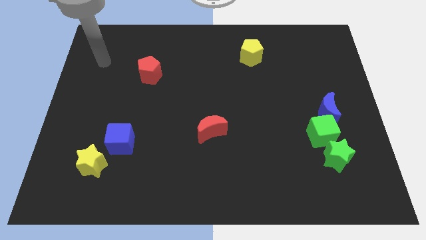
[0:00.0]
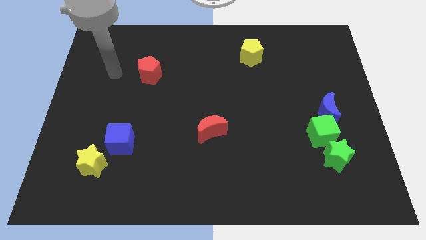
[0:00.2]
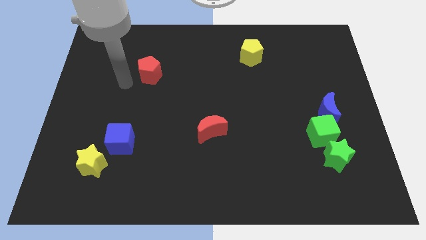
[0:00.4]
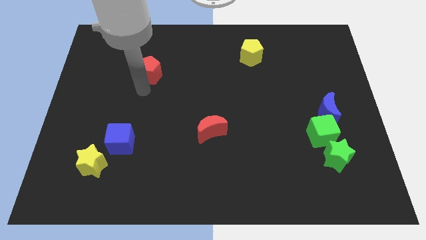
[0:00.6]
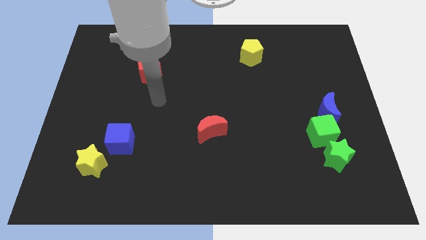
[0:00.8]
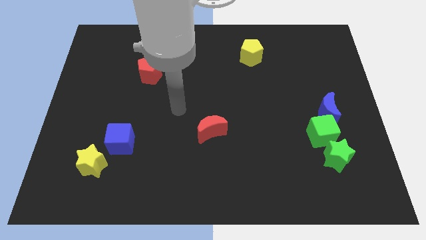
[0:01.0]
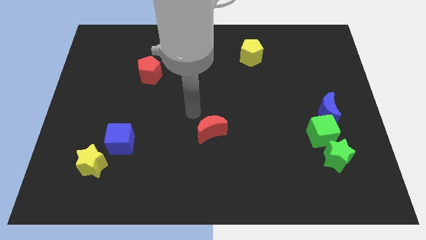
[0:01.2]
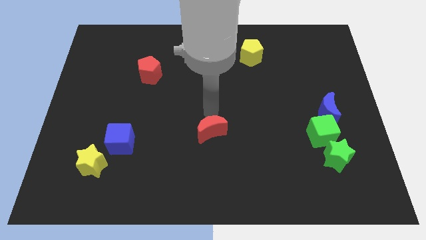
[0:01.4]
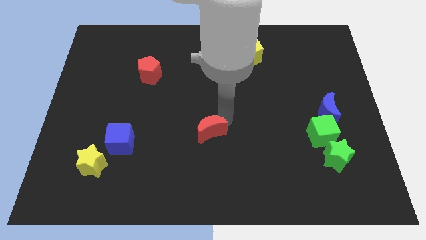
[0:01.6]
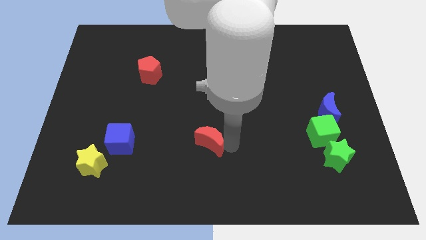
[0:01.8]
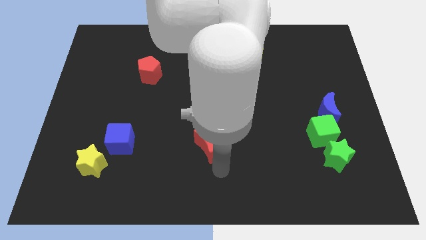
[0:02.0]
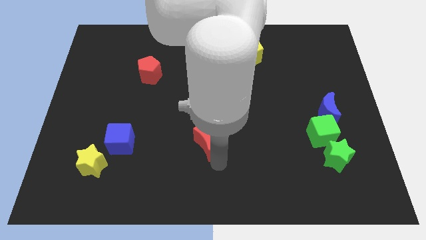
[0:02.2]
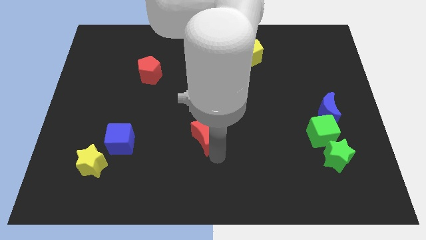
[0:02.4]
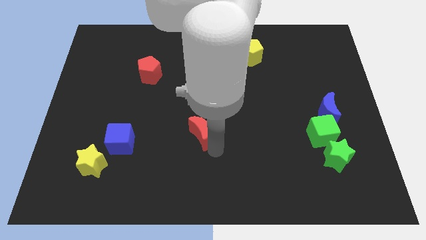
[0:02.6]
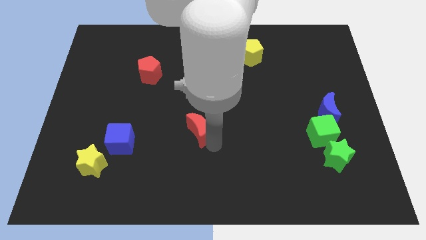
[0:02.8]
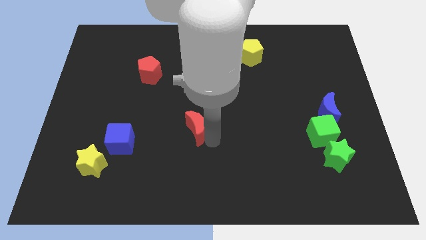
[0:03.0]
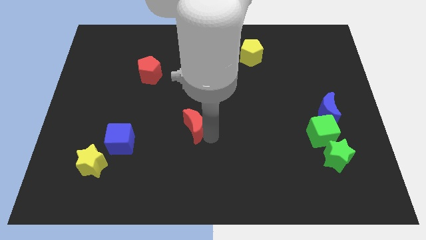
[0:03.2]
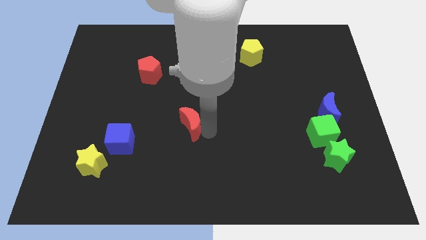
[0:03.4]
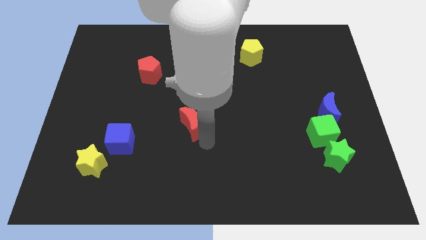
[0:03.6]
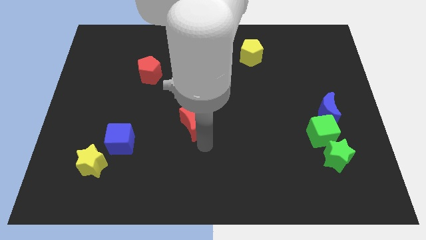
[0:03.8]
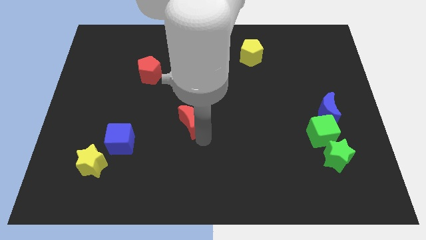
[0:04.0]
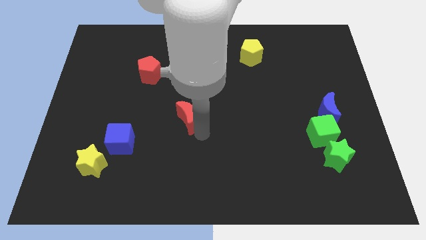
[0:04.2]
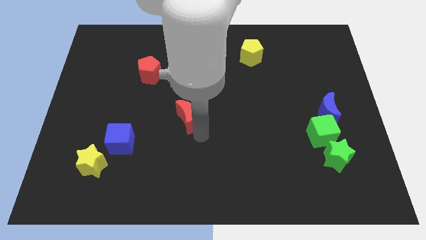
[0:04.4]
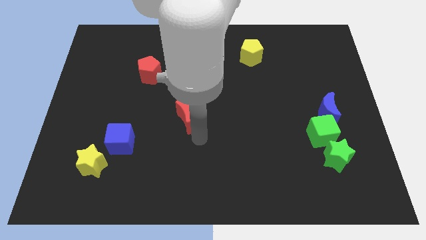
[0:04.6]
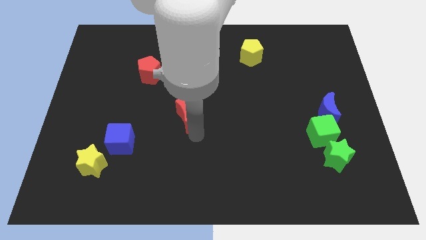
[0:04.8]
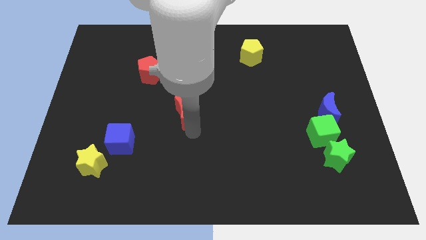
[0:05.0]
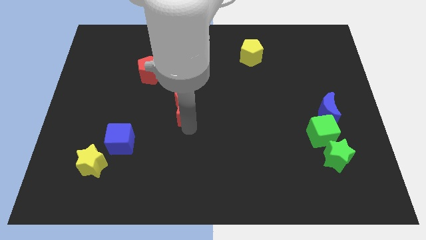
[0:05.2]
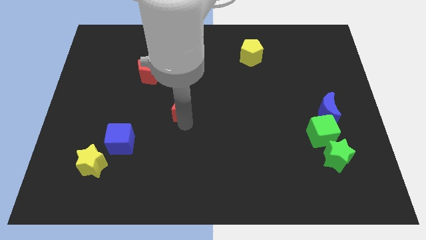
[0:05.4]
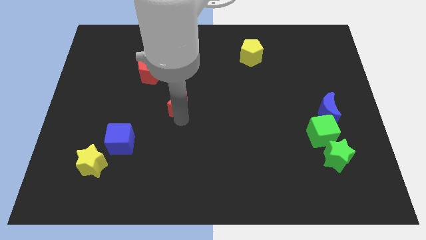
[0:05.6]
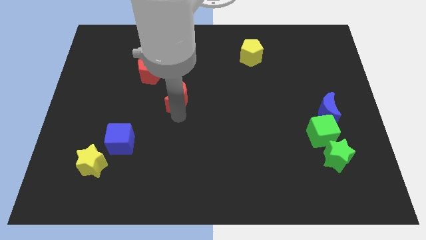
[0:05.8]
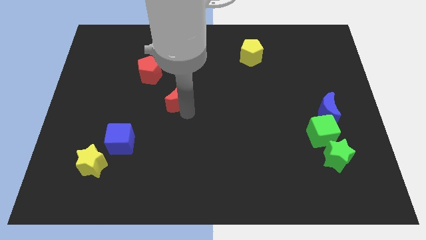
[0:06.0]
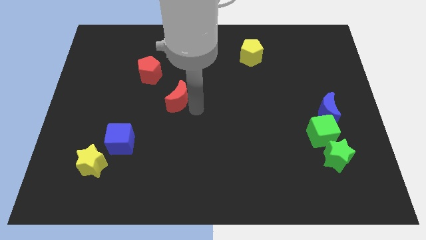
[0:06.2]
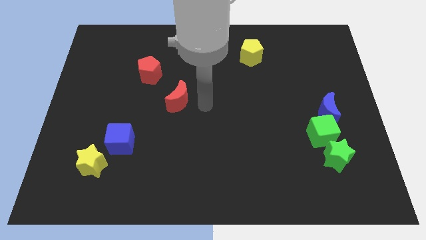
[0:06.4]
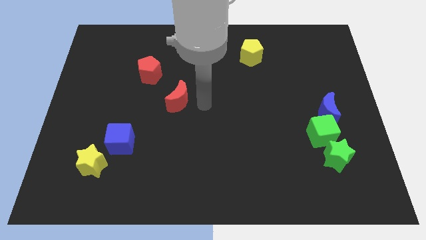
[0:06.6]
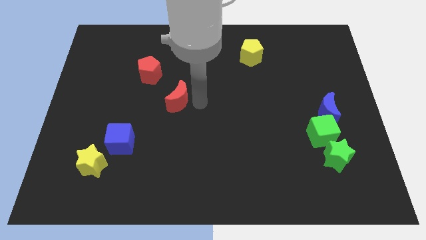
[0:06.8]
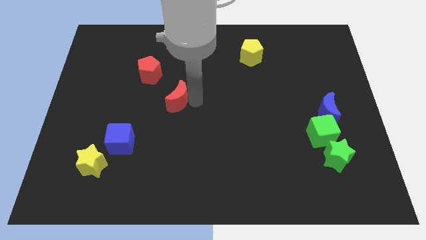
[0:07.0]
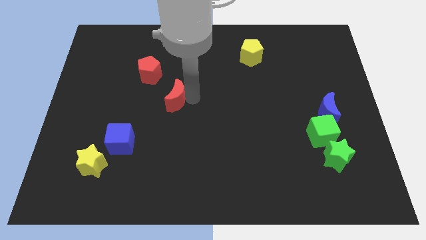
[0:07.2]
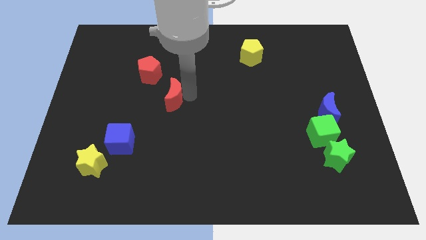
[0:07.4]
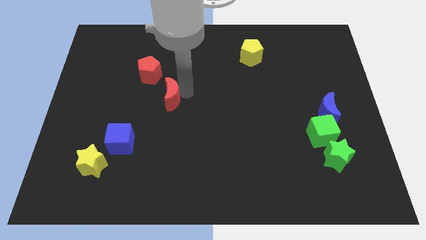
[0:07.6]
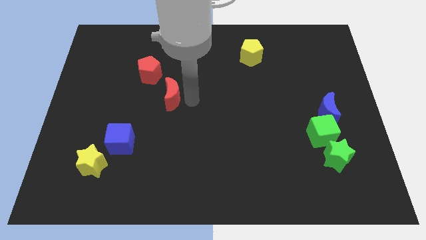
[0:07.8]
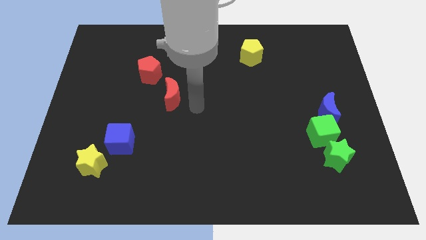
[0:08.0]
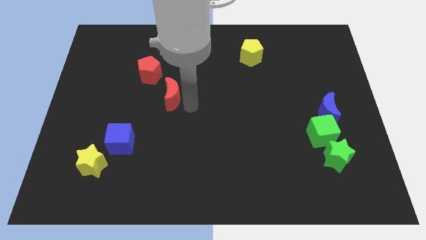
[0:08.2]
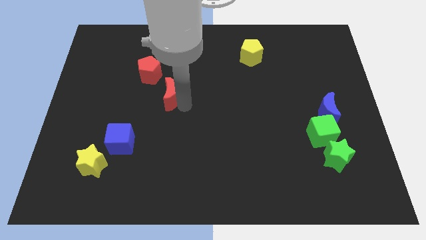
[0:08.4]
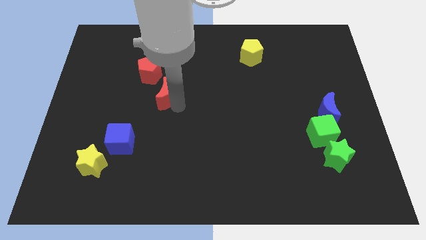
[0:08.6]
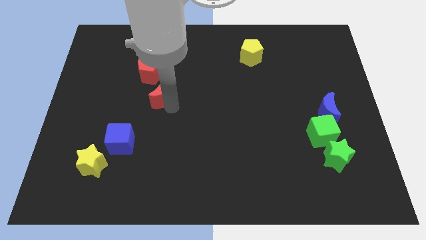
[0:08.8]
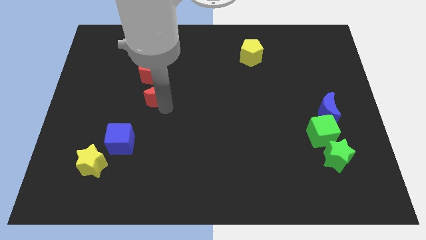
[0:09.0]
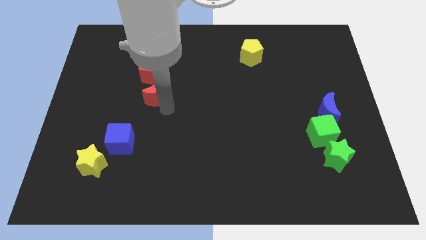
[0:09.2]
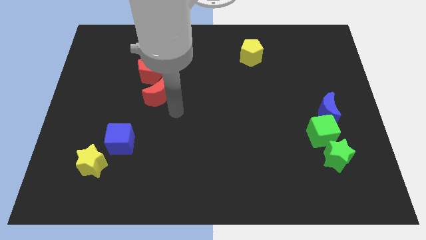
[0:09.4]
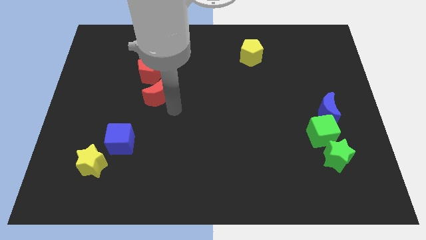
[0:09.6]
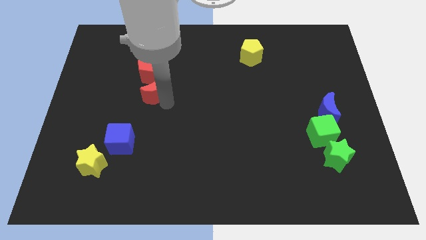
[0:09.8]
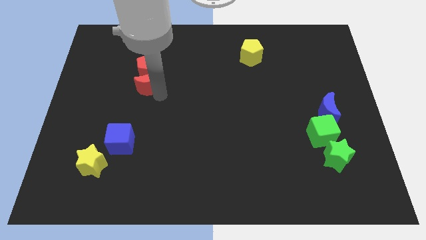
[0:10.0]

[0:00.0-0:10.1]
push the red moon up and to the left diagonally

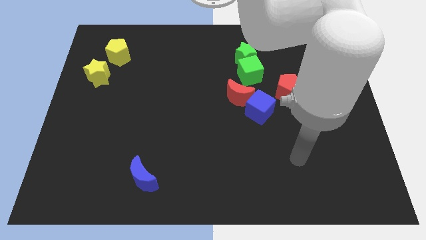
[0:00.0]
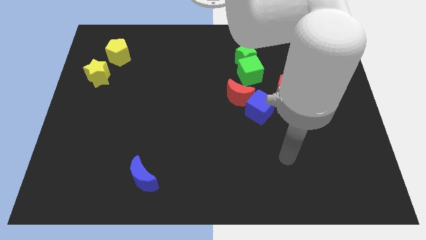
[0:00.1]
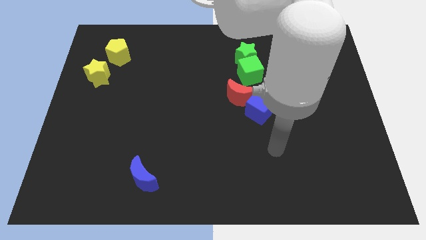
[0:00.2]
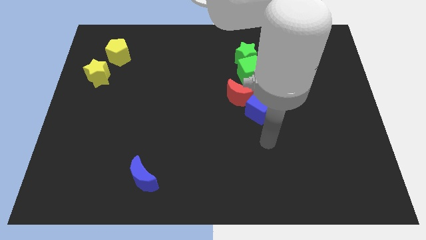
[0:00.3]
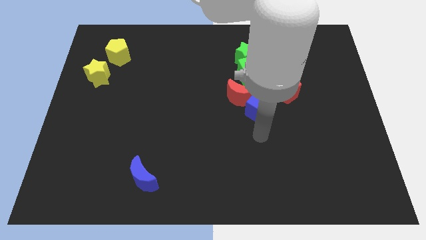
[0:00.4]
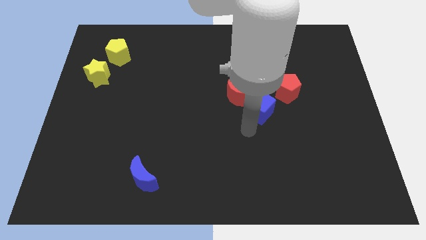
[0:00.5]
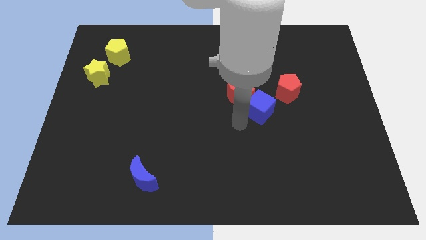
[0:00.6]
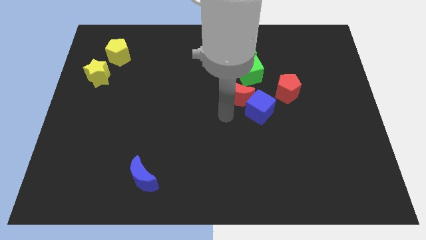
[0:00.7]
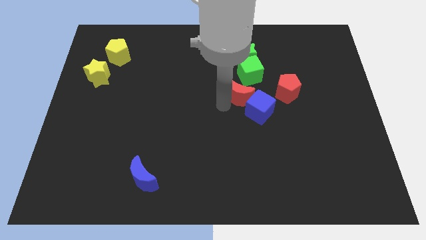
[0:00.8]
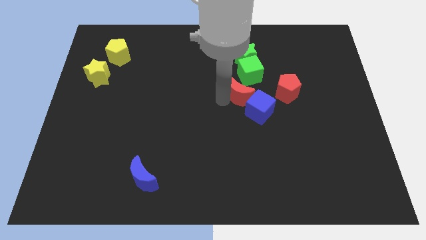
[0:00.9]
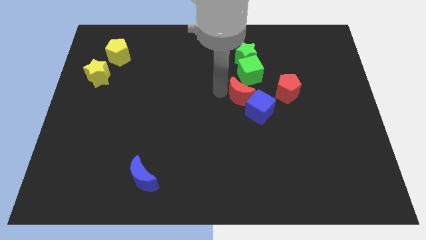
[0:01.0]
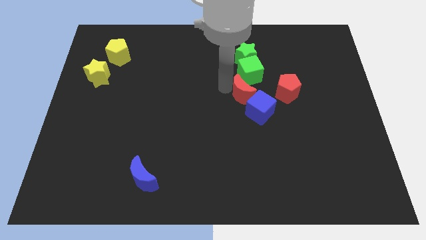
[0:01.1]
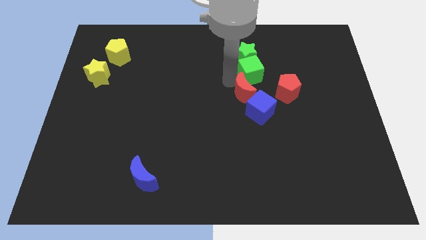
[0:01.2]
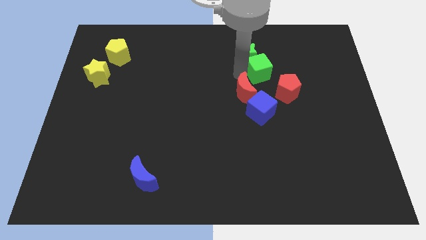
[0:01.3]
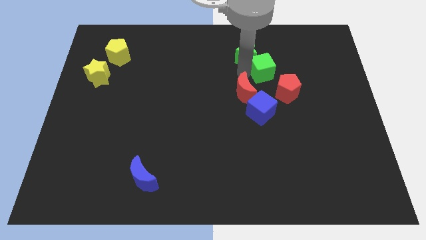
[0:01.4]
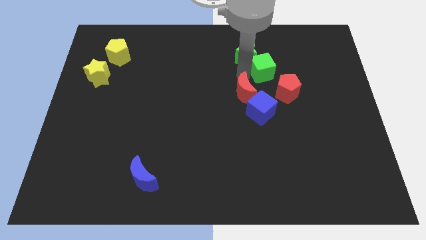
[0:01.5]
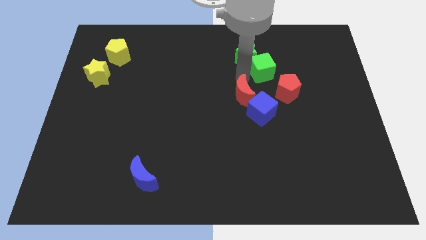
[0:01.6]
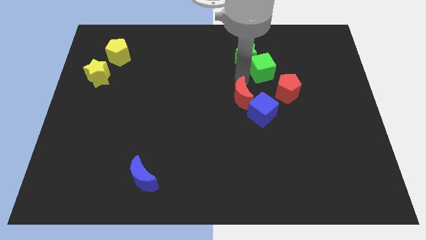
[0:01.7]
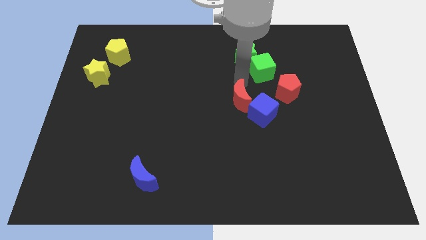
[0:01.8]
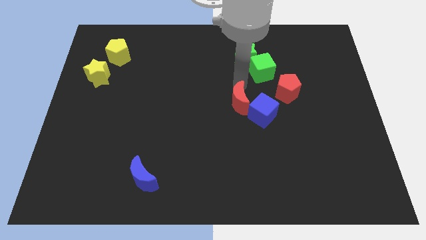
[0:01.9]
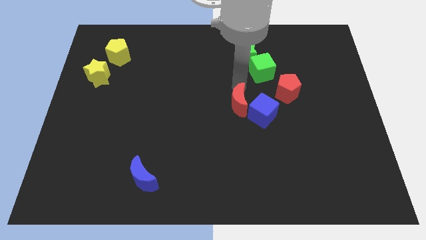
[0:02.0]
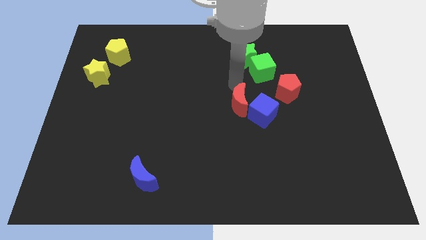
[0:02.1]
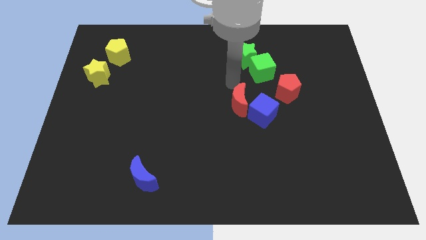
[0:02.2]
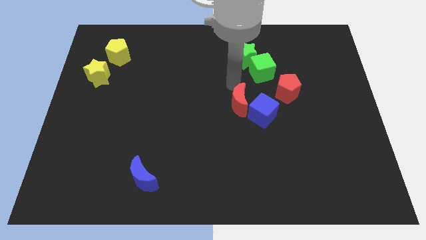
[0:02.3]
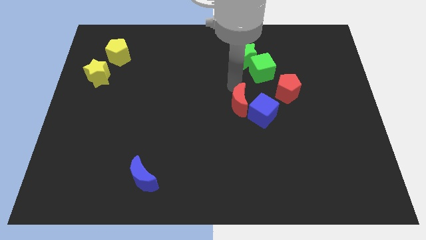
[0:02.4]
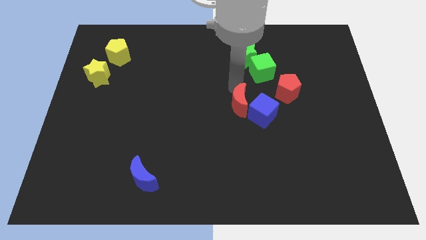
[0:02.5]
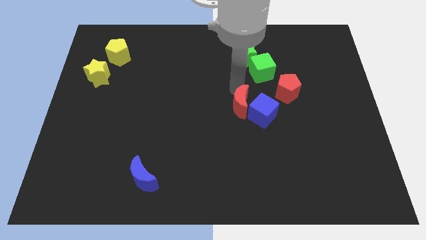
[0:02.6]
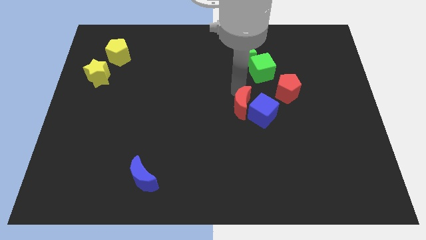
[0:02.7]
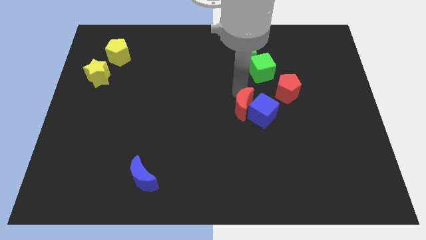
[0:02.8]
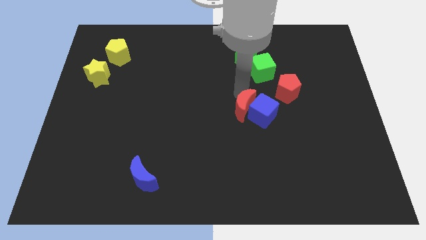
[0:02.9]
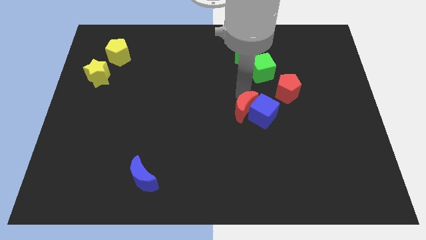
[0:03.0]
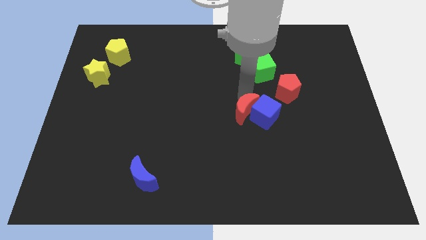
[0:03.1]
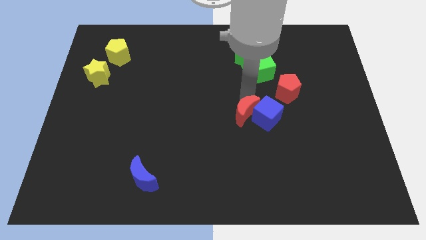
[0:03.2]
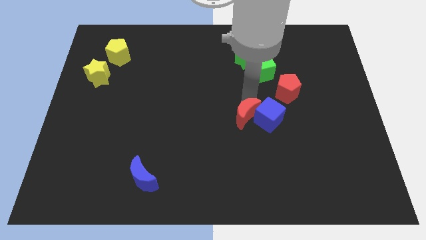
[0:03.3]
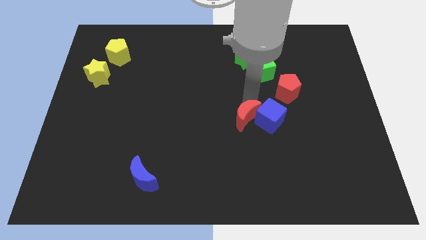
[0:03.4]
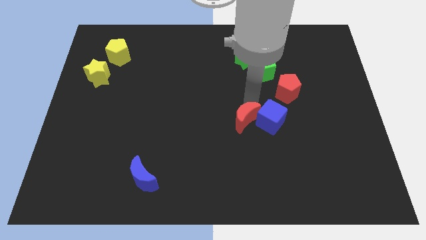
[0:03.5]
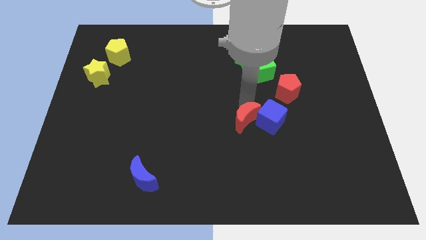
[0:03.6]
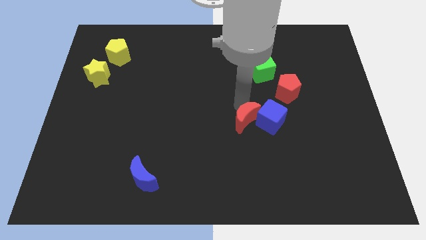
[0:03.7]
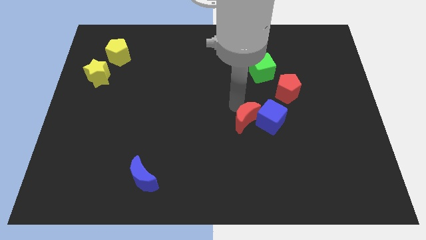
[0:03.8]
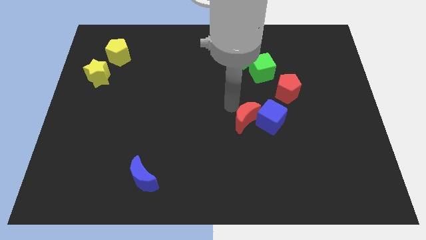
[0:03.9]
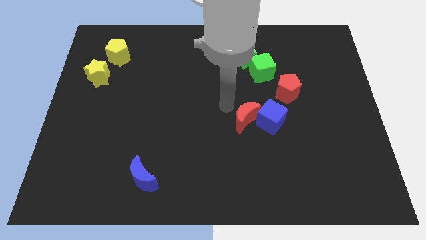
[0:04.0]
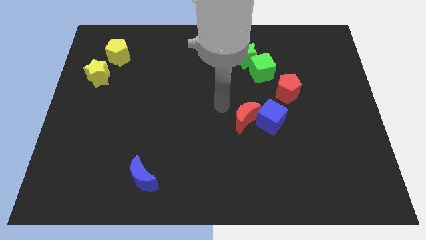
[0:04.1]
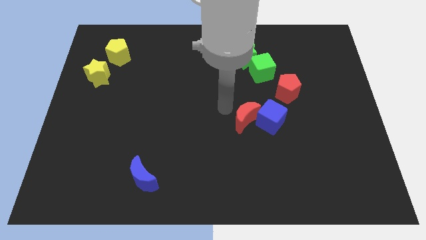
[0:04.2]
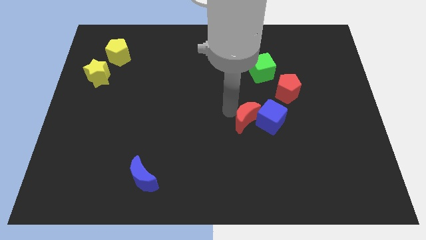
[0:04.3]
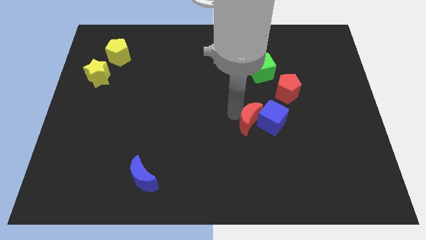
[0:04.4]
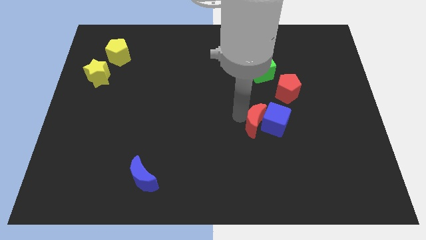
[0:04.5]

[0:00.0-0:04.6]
push the red moon down and to the right diagonally a bit
